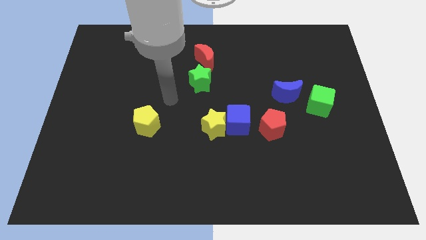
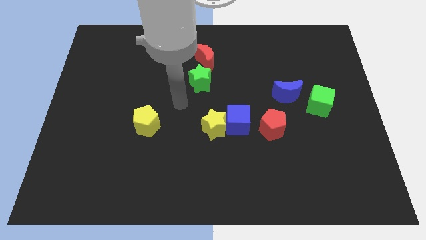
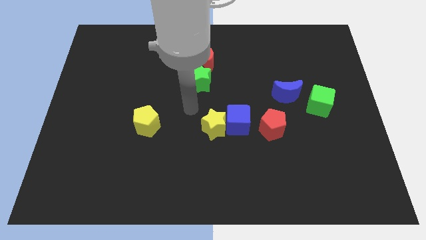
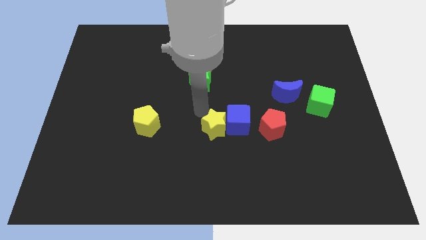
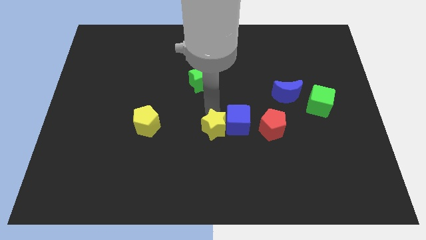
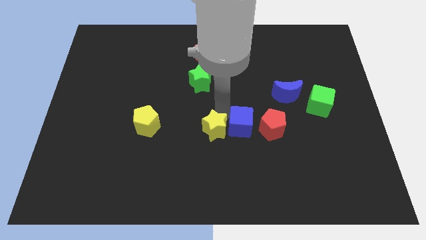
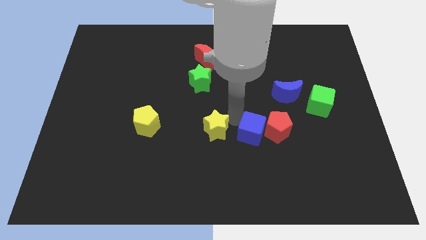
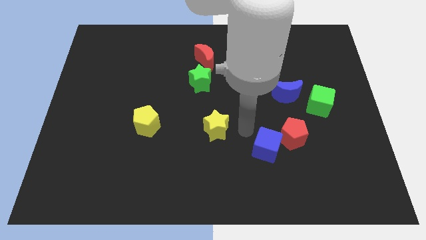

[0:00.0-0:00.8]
pull the yellow star apart from the blue cube

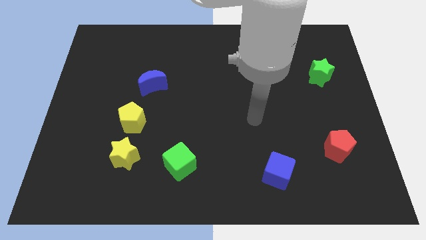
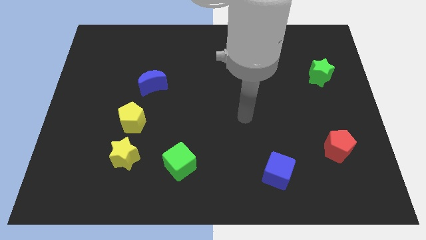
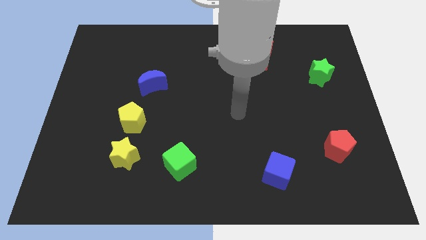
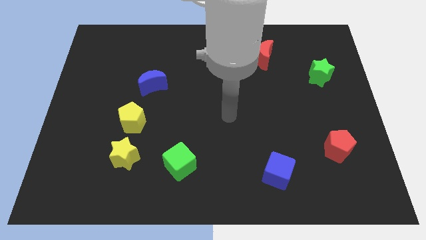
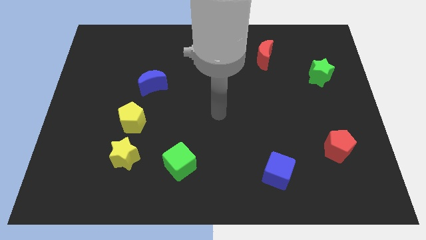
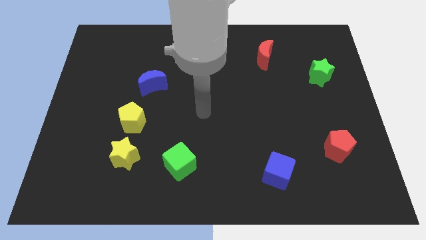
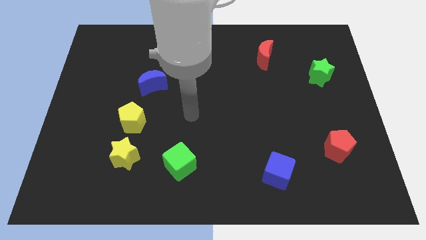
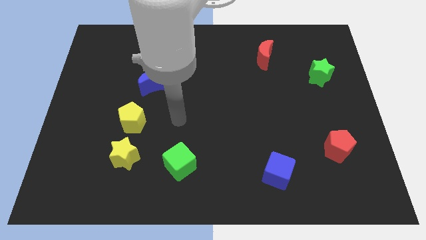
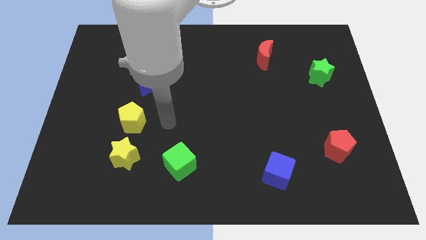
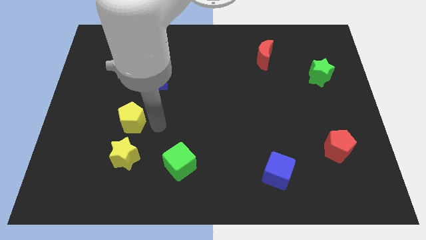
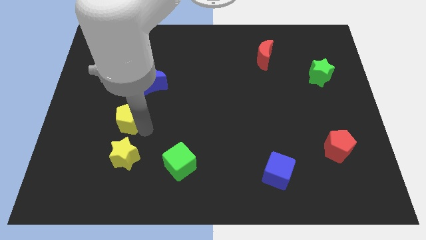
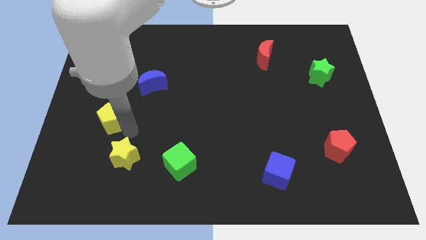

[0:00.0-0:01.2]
separate the yellow star from the yellow pentagon

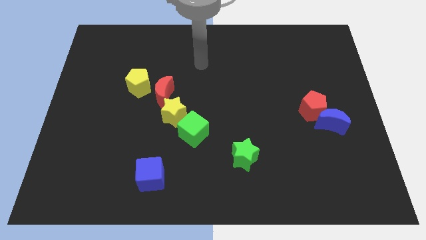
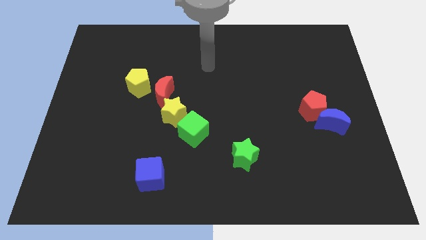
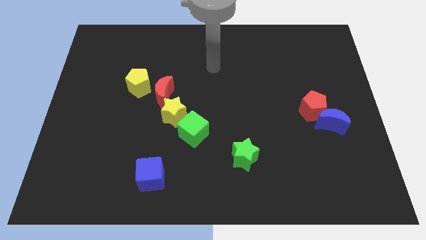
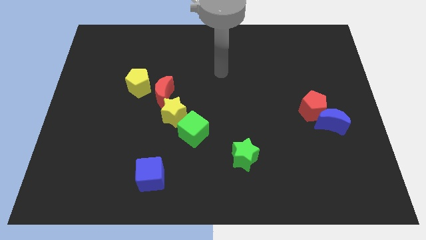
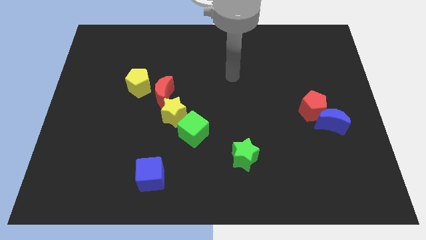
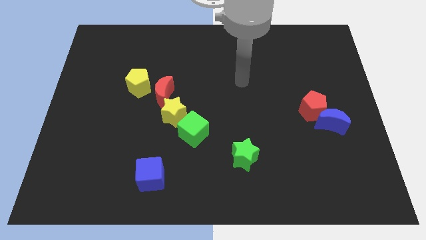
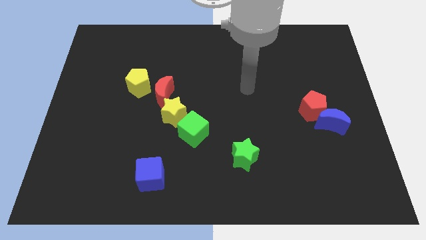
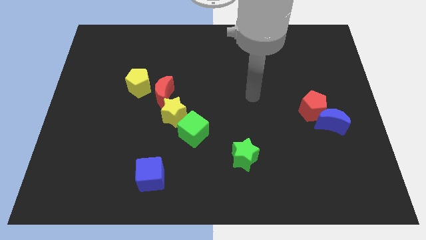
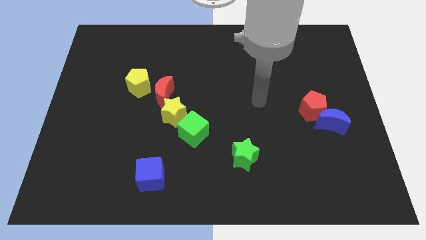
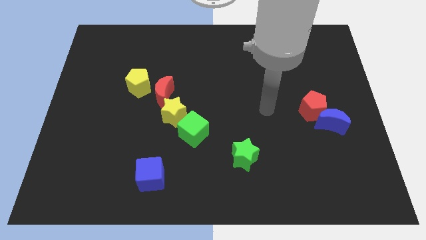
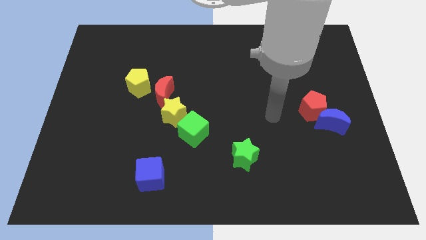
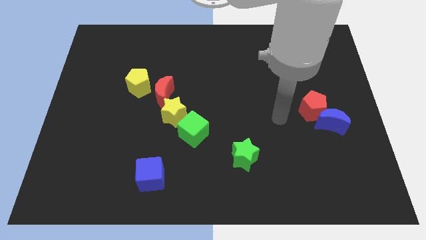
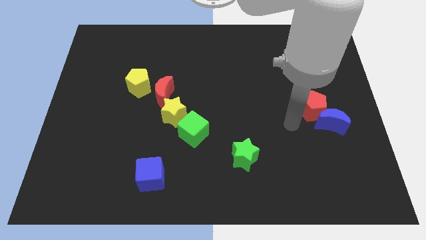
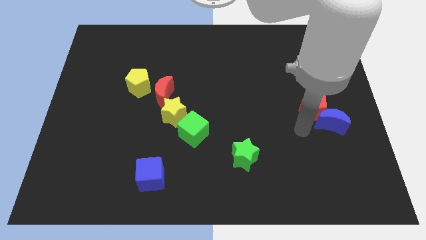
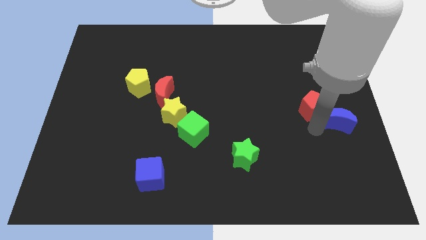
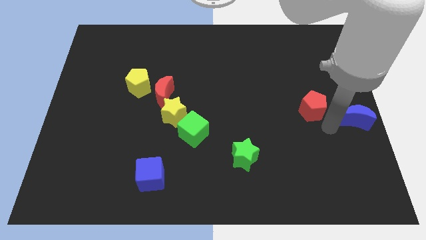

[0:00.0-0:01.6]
move the red pentagon away from the blue moon

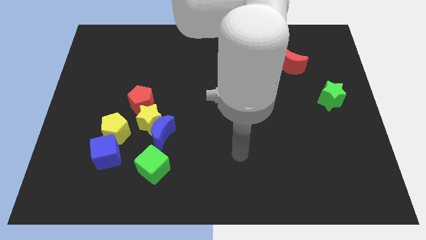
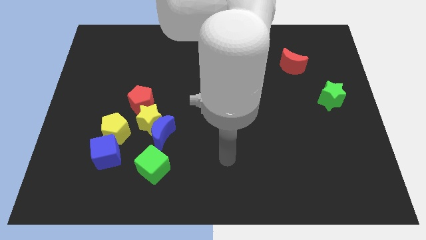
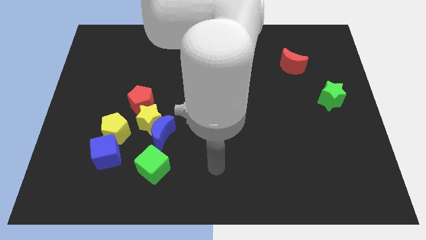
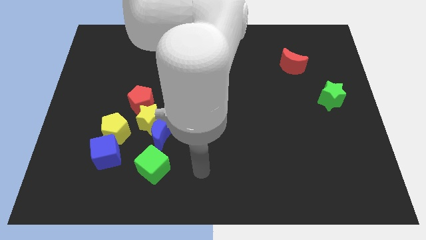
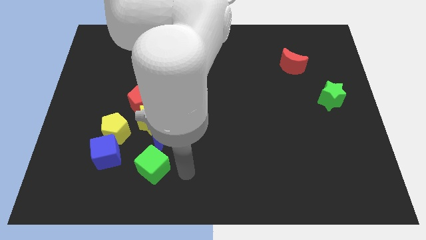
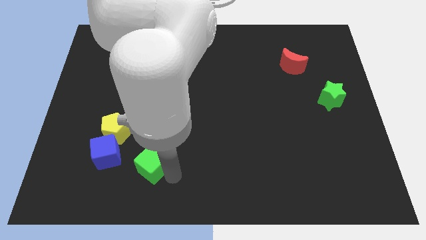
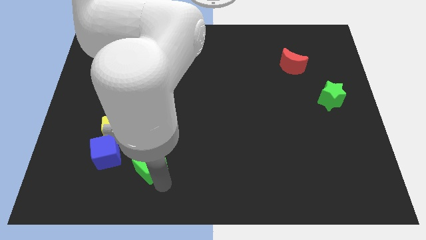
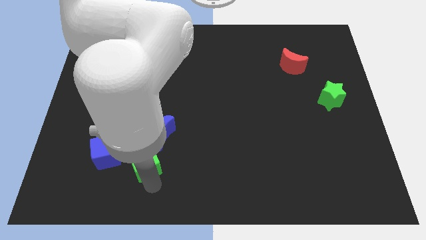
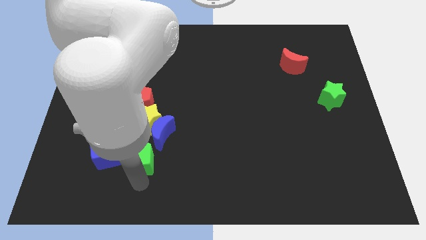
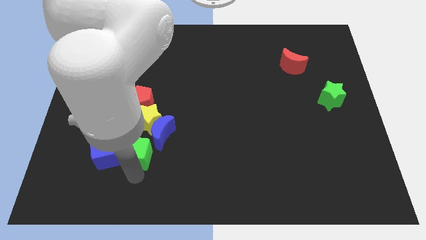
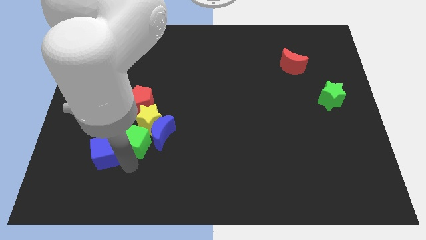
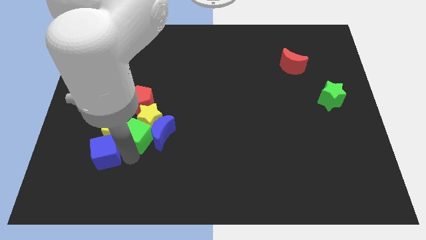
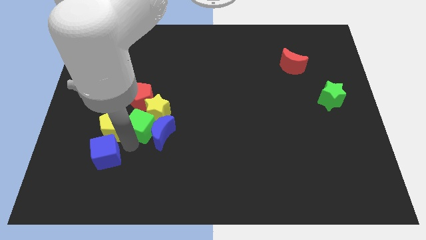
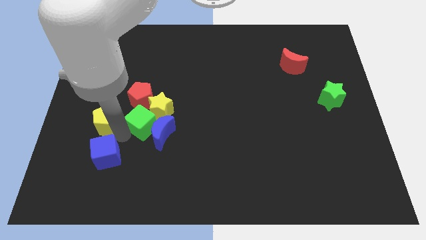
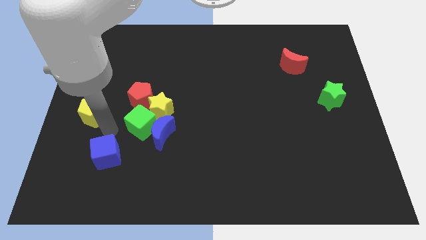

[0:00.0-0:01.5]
pull the blue cube apart from the yellow pentagon

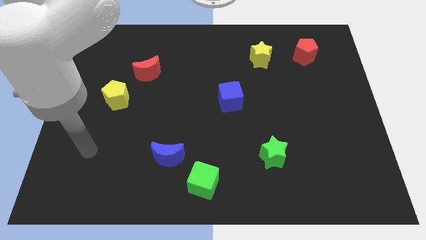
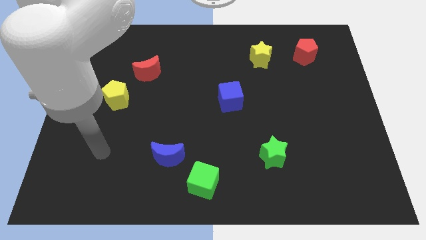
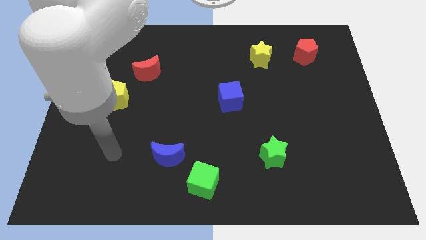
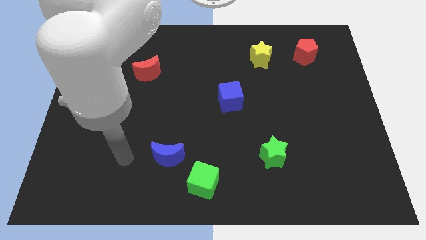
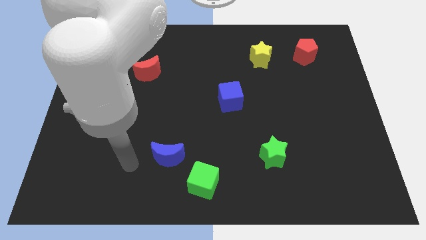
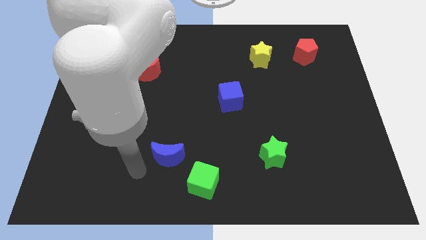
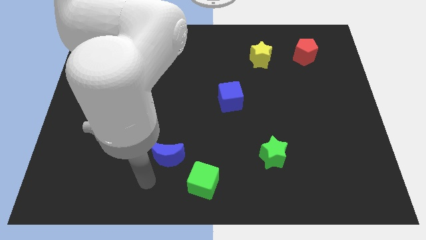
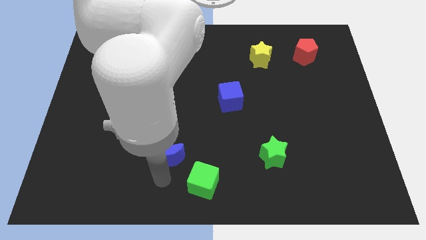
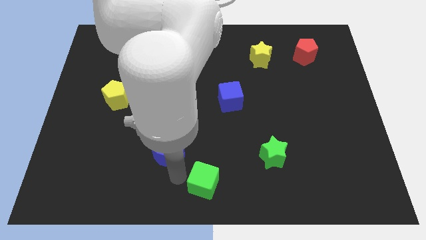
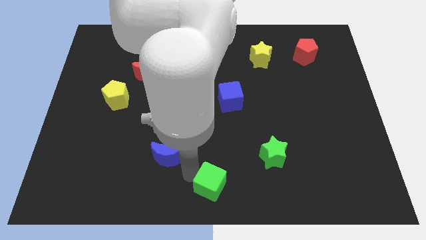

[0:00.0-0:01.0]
move the blue moon away from the green cube

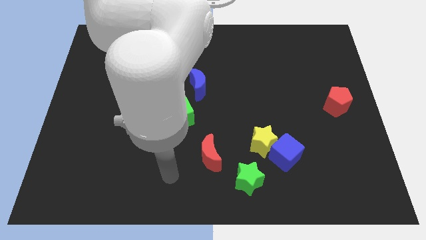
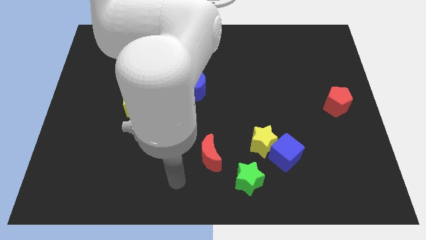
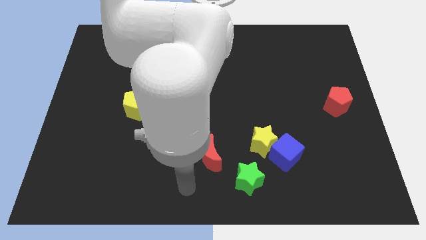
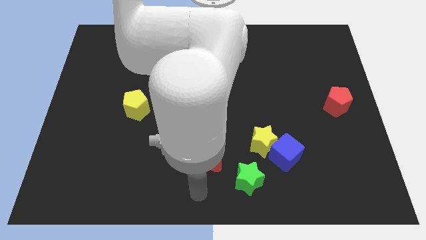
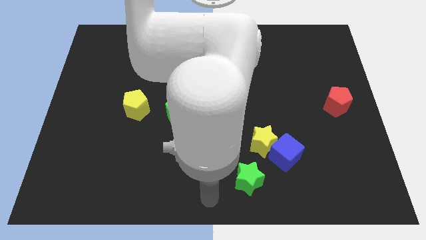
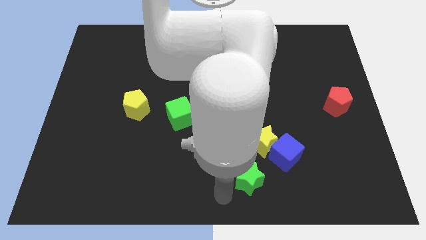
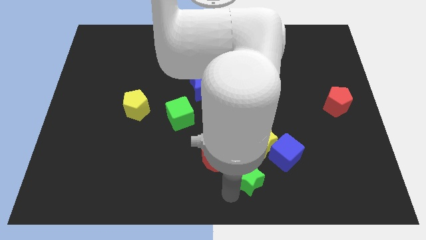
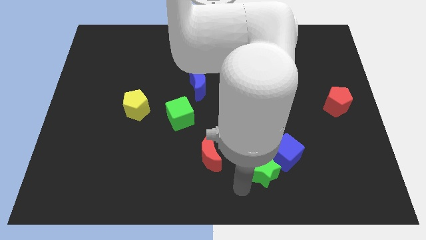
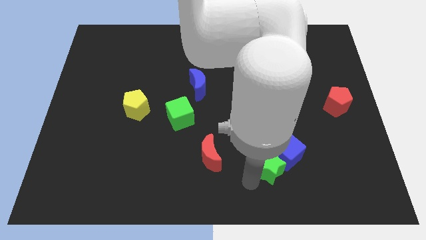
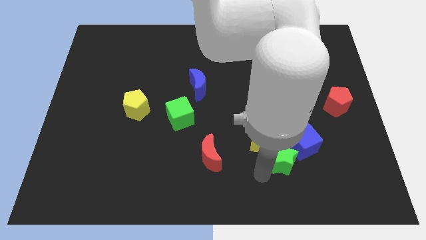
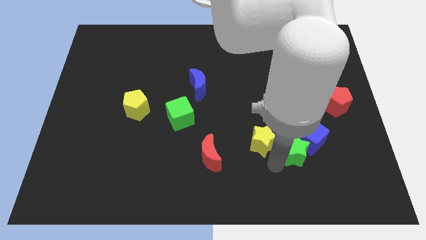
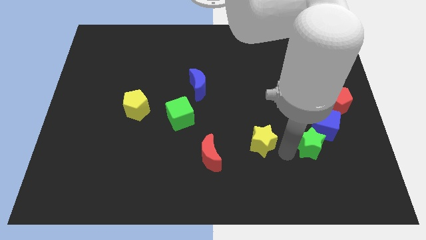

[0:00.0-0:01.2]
pull the yellow star apart from the blue cube and green star

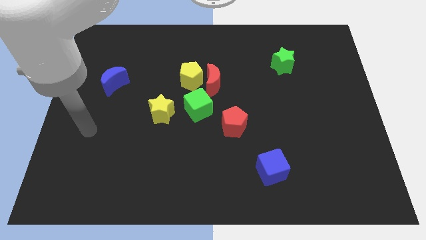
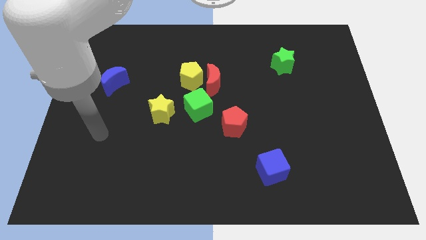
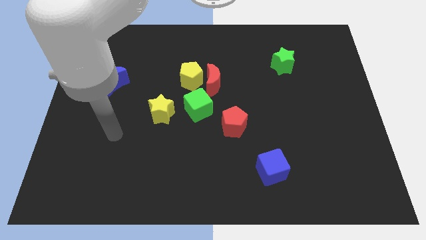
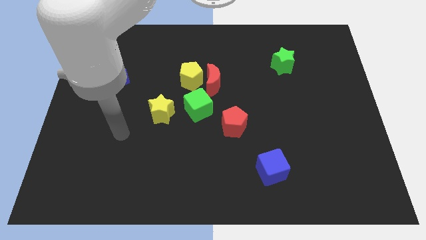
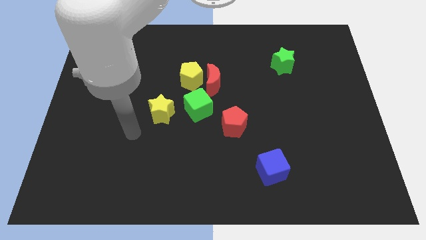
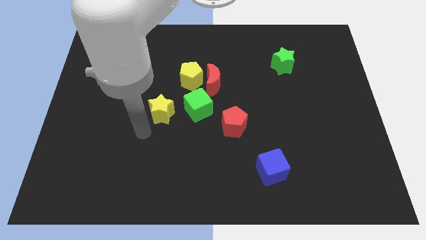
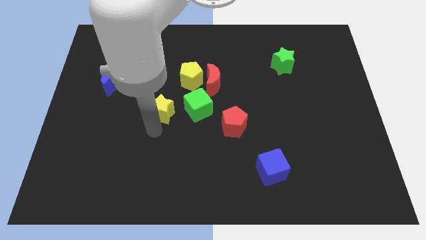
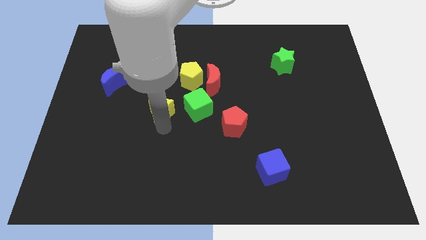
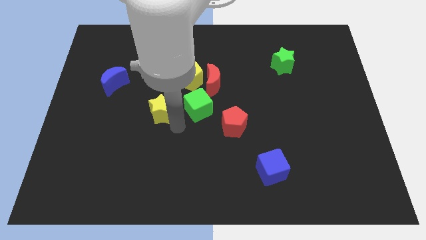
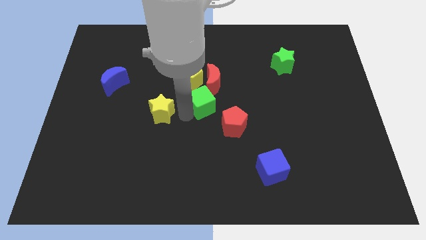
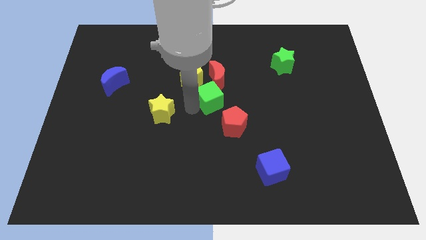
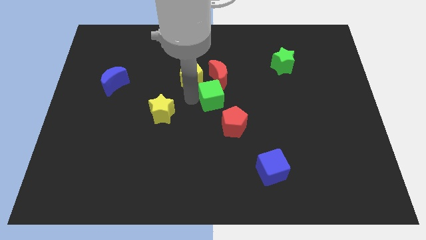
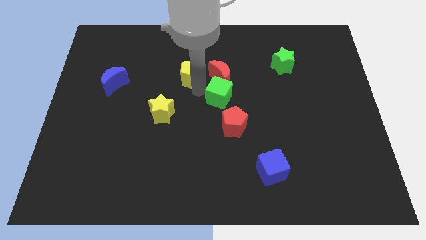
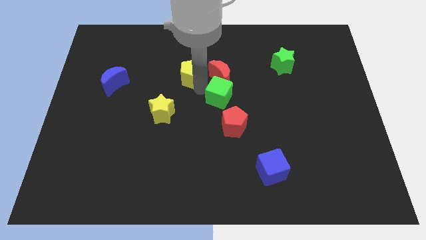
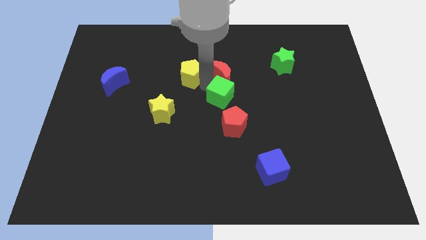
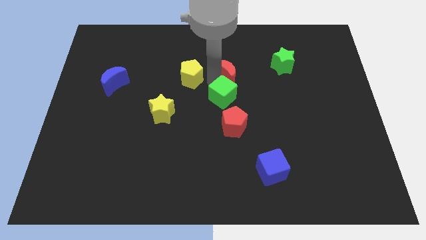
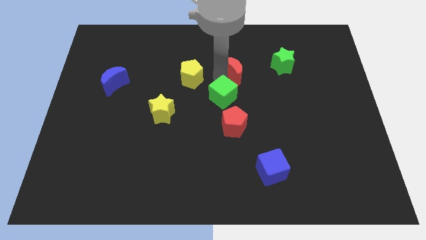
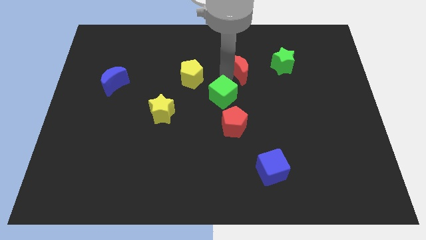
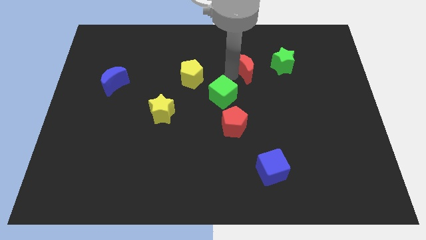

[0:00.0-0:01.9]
separate the red moon from the yellow pentagon and green cube
